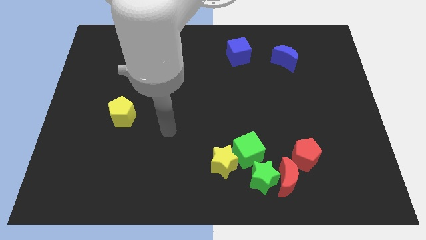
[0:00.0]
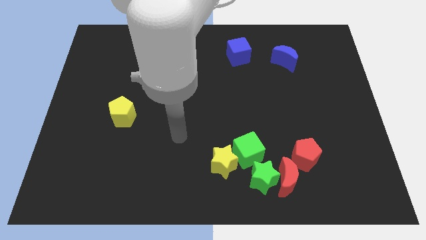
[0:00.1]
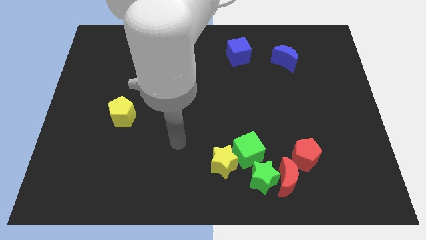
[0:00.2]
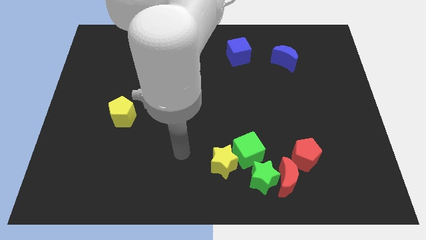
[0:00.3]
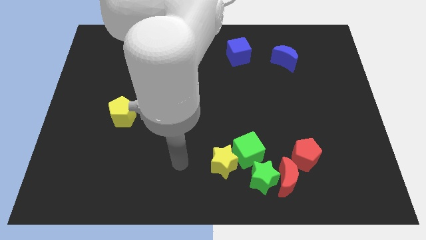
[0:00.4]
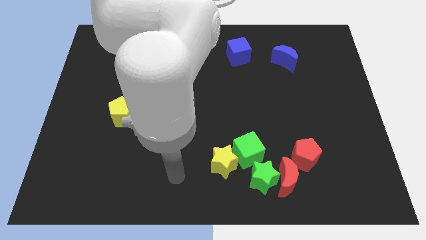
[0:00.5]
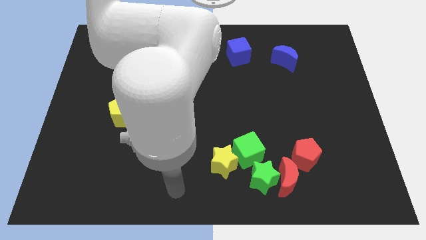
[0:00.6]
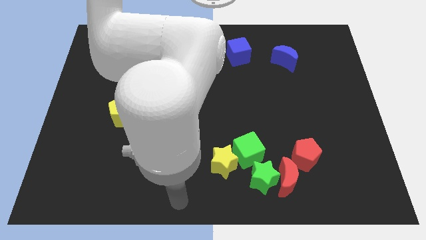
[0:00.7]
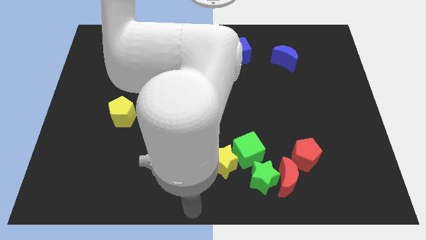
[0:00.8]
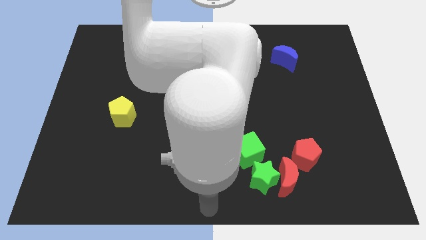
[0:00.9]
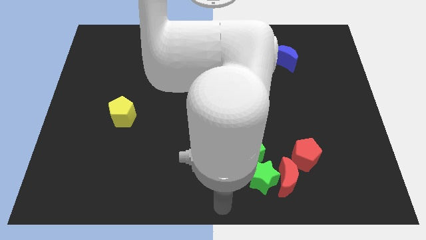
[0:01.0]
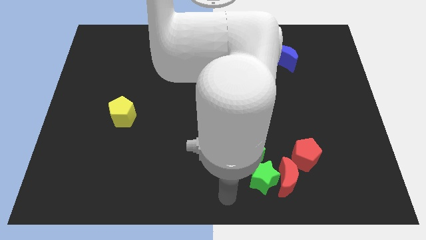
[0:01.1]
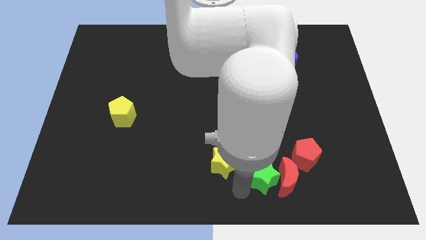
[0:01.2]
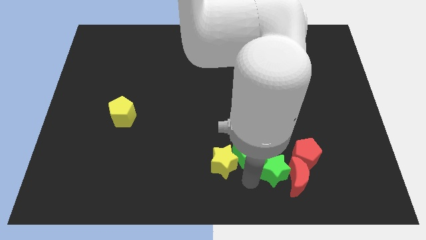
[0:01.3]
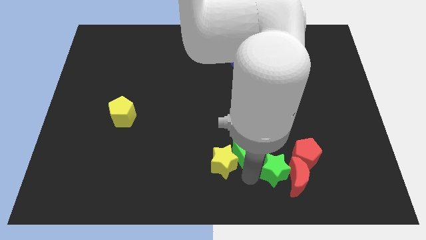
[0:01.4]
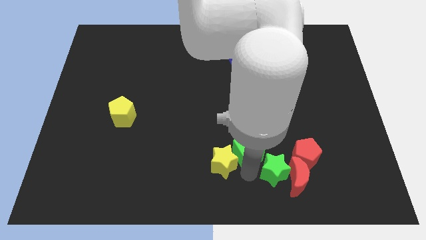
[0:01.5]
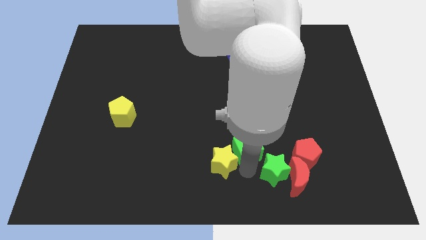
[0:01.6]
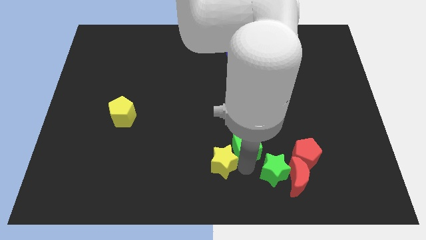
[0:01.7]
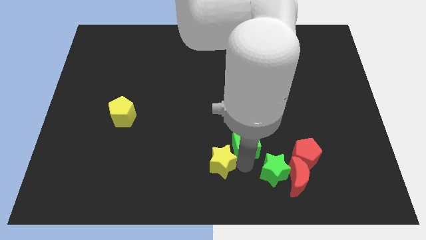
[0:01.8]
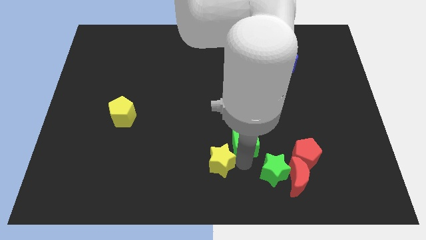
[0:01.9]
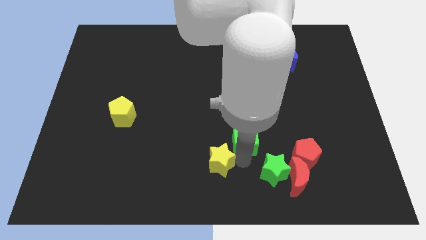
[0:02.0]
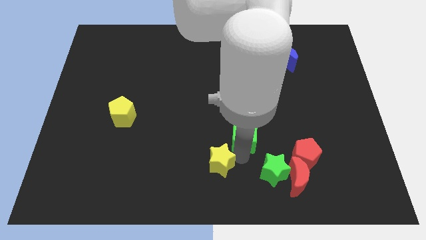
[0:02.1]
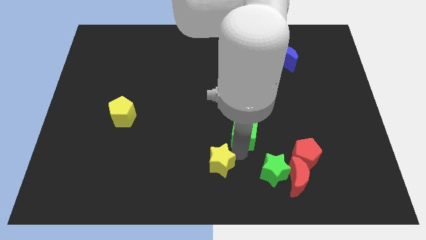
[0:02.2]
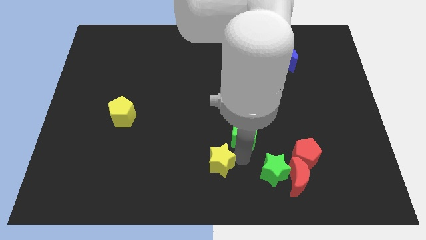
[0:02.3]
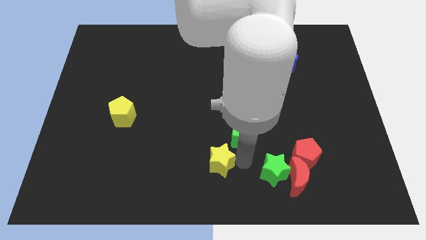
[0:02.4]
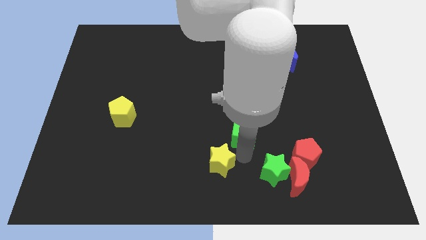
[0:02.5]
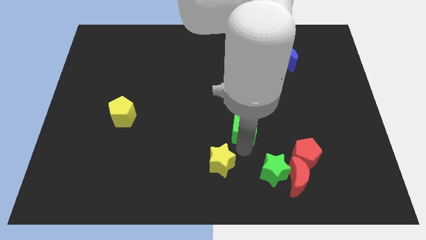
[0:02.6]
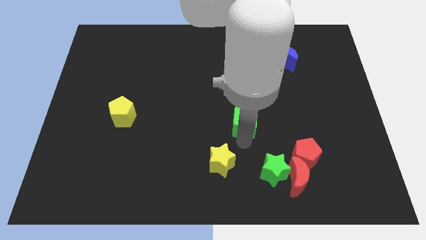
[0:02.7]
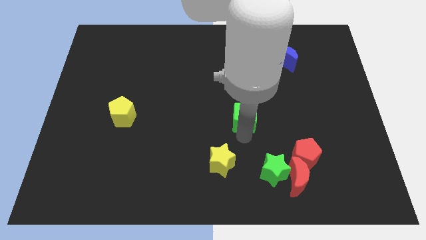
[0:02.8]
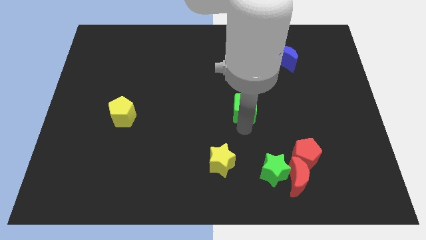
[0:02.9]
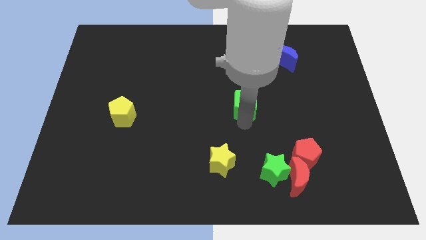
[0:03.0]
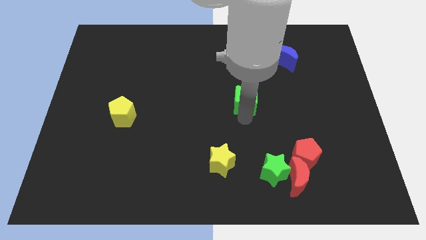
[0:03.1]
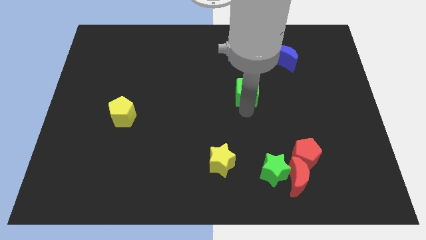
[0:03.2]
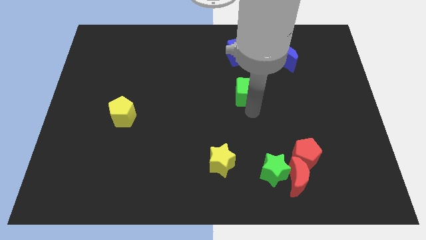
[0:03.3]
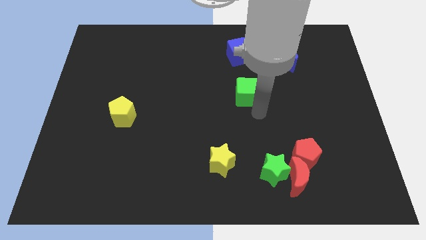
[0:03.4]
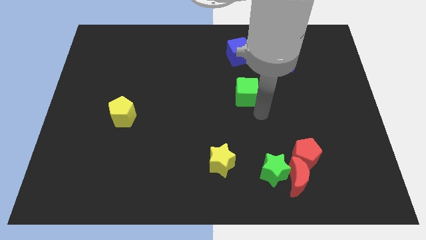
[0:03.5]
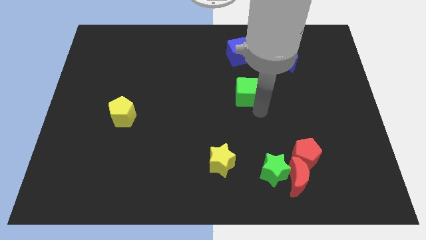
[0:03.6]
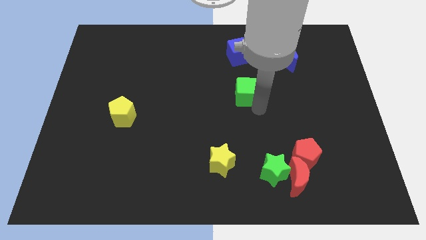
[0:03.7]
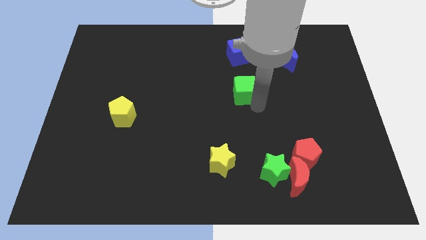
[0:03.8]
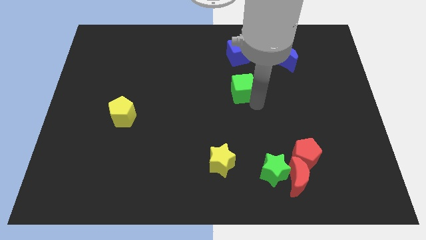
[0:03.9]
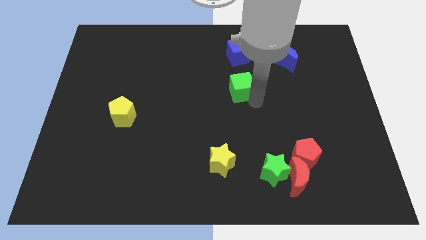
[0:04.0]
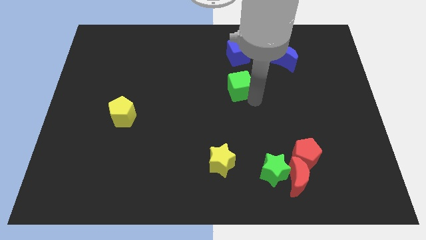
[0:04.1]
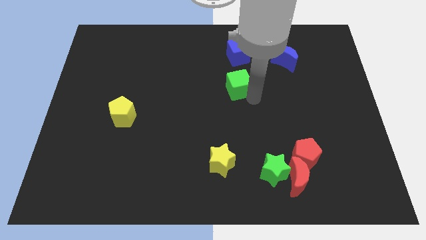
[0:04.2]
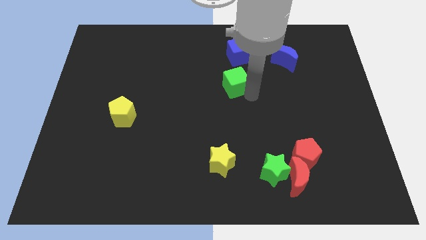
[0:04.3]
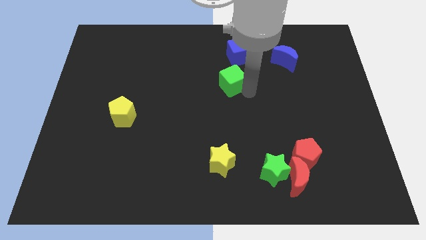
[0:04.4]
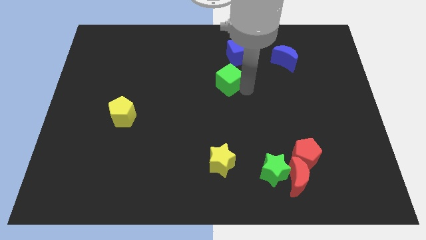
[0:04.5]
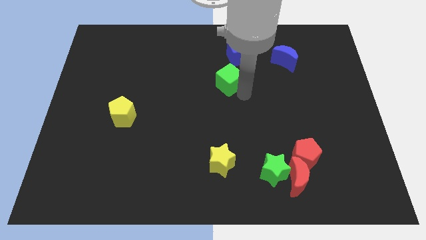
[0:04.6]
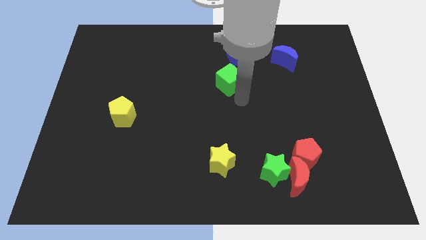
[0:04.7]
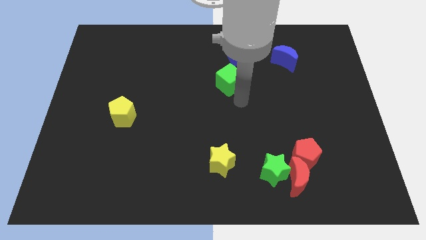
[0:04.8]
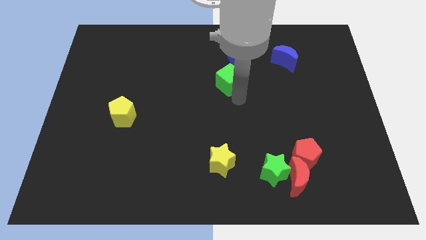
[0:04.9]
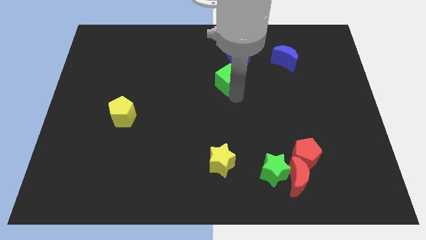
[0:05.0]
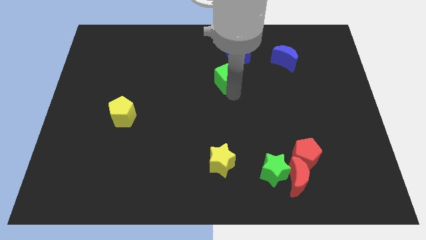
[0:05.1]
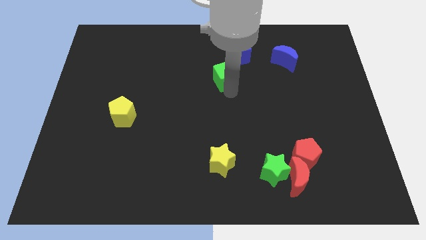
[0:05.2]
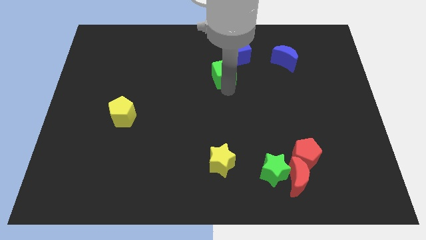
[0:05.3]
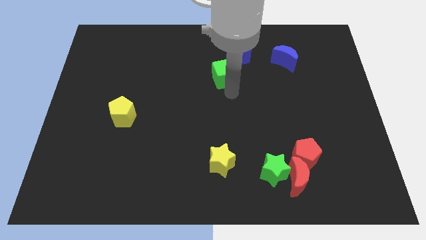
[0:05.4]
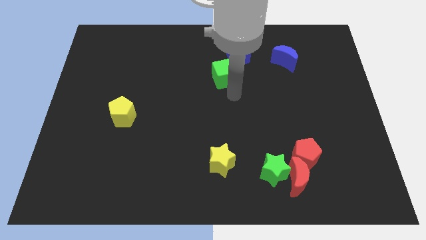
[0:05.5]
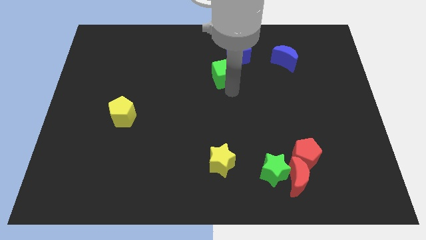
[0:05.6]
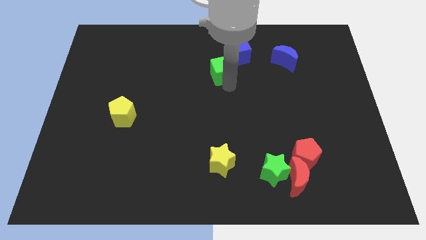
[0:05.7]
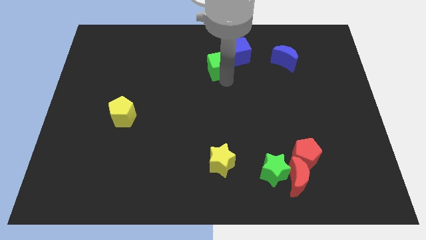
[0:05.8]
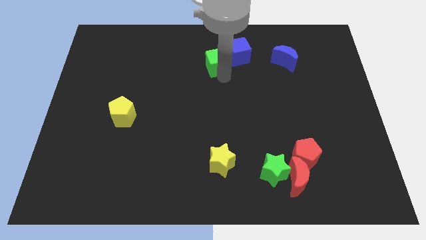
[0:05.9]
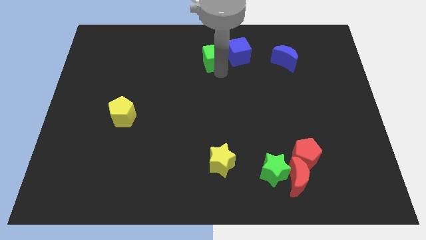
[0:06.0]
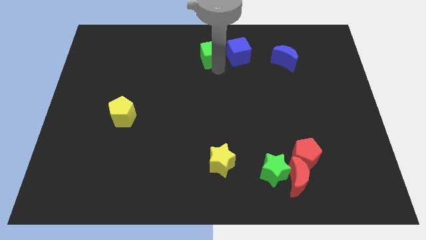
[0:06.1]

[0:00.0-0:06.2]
put the green cube to the top side
